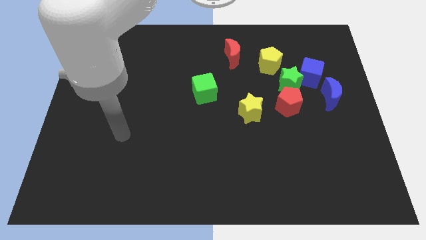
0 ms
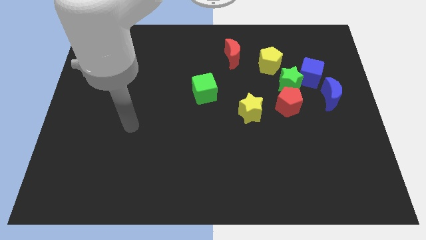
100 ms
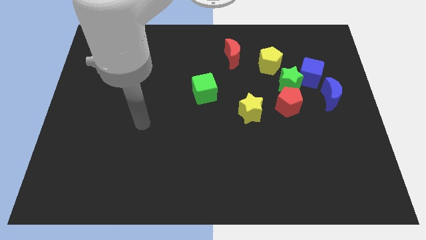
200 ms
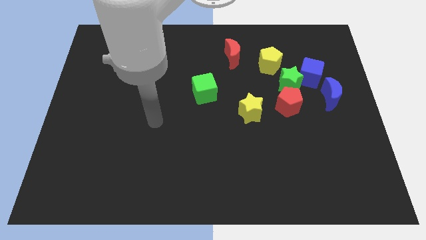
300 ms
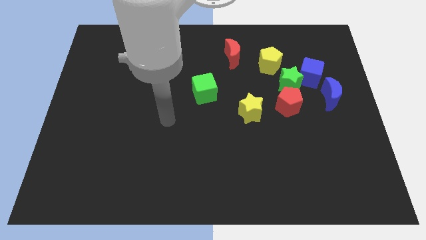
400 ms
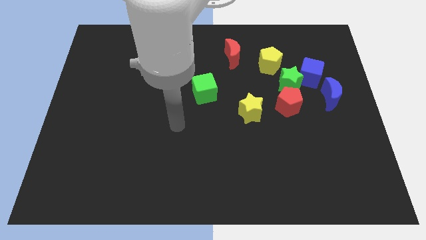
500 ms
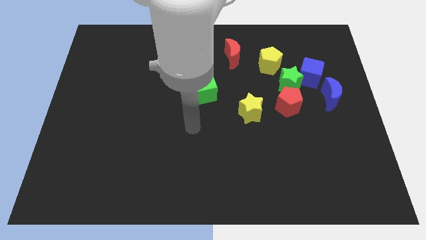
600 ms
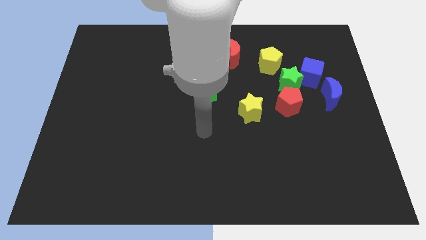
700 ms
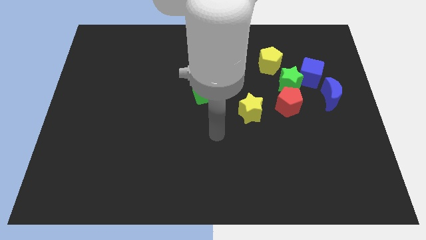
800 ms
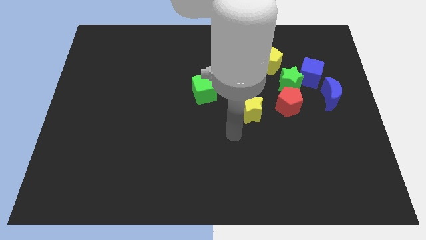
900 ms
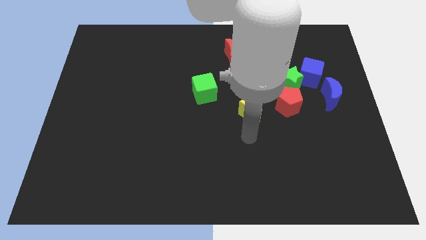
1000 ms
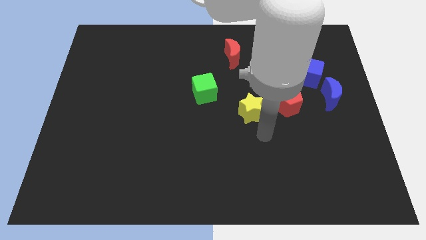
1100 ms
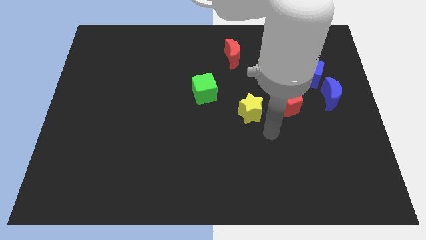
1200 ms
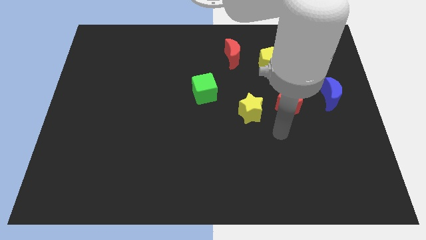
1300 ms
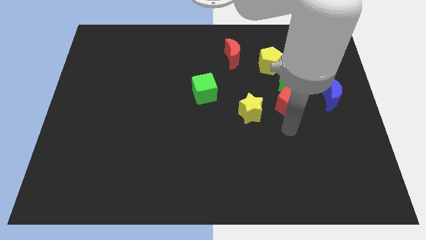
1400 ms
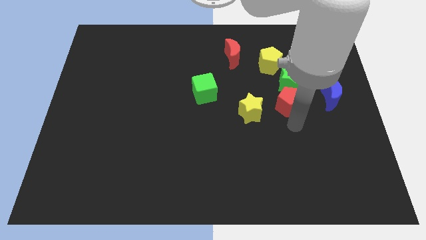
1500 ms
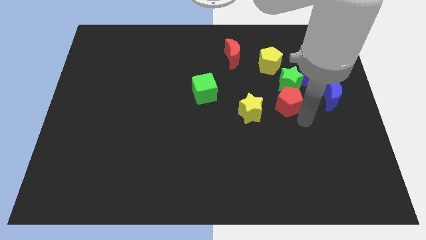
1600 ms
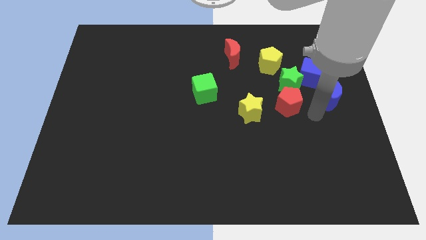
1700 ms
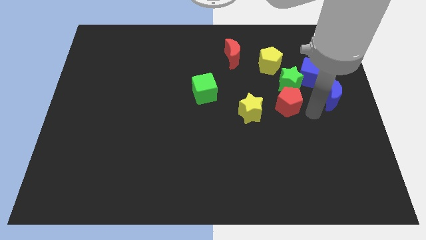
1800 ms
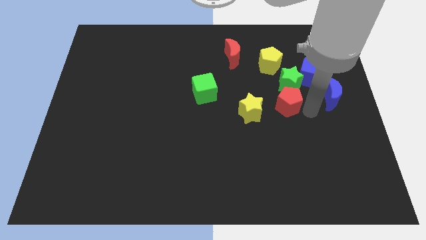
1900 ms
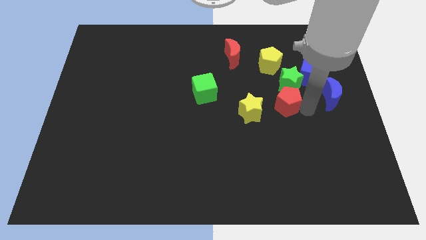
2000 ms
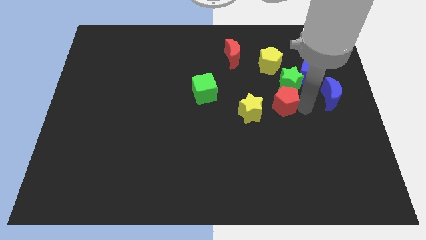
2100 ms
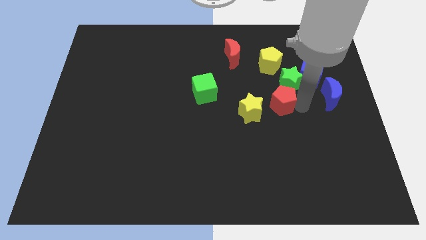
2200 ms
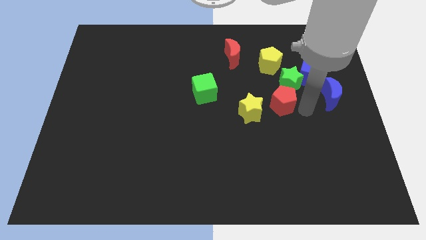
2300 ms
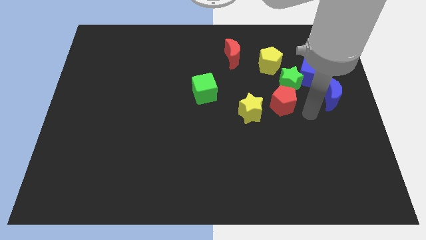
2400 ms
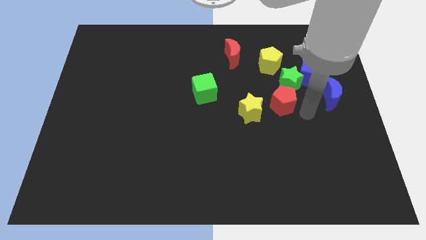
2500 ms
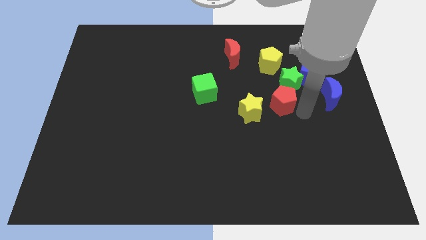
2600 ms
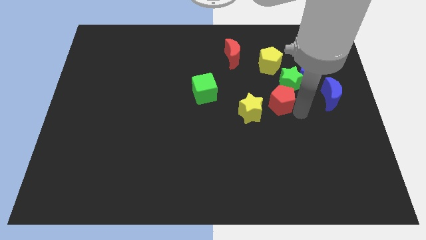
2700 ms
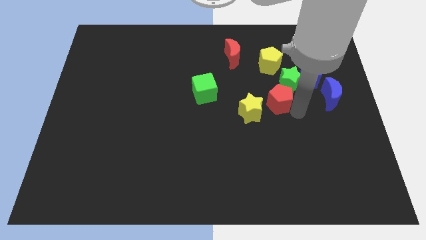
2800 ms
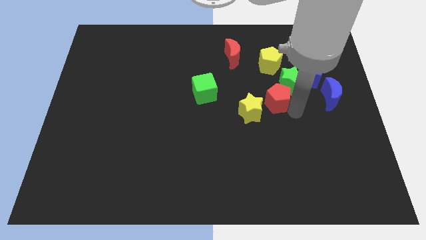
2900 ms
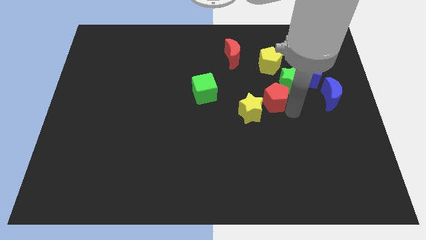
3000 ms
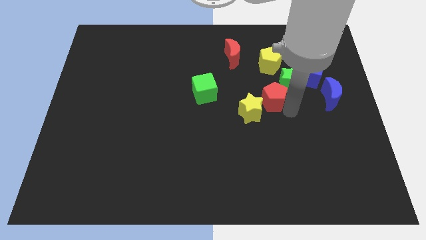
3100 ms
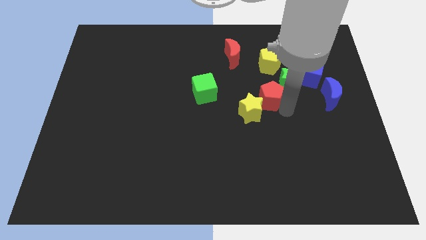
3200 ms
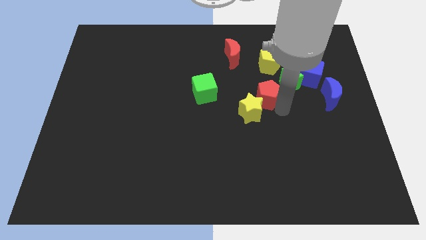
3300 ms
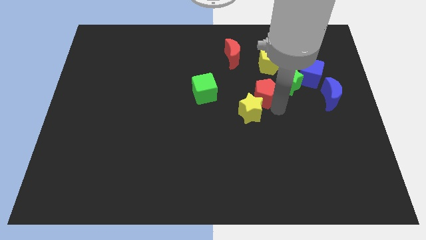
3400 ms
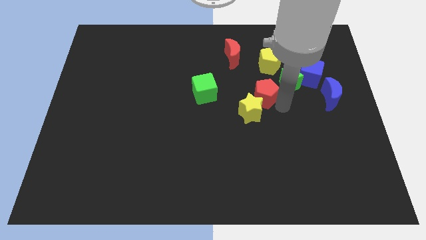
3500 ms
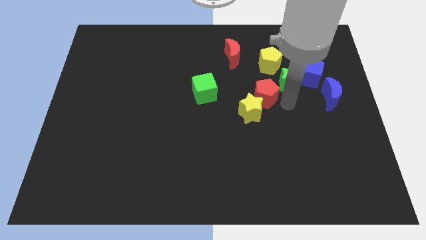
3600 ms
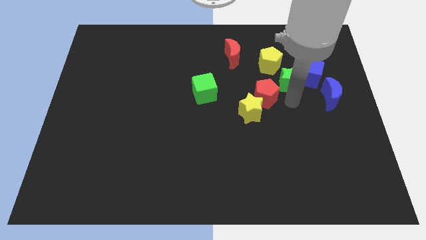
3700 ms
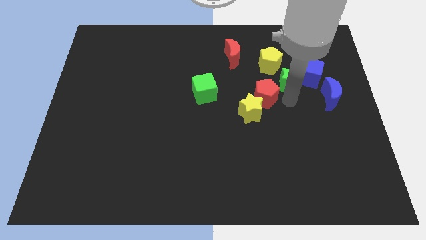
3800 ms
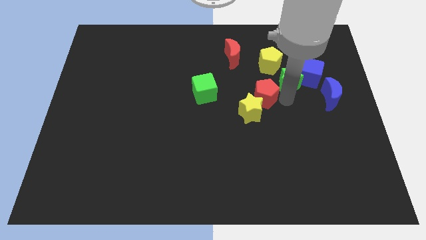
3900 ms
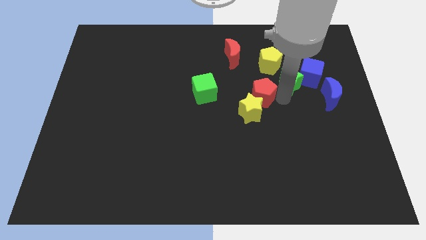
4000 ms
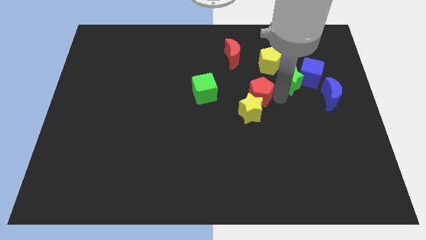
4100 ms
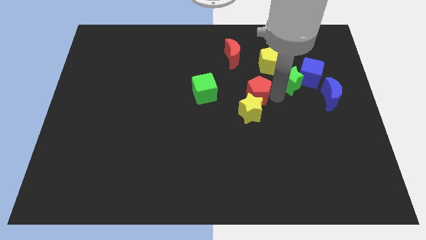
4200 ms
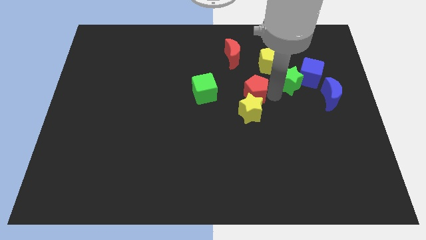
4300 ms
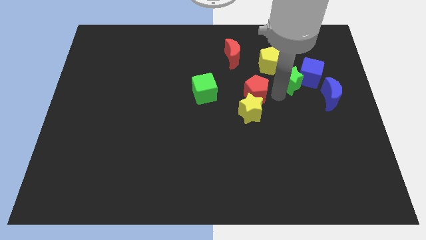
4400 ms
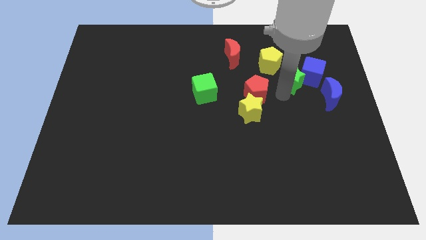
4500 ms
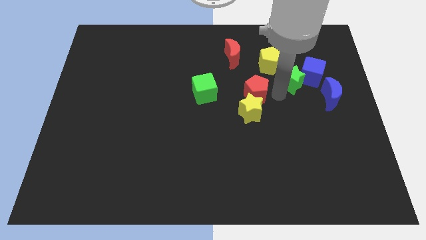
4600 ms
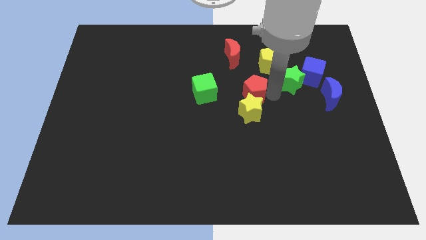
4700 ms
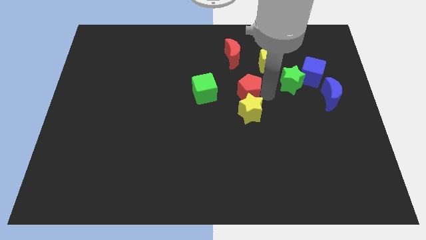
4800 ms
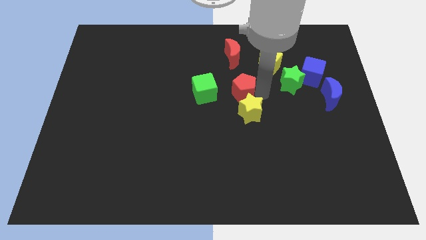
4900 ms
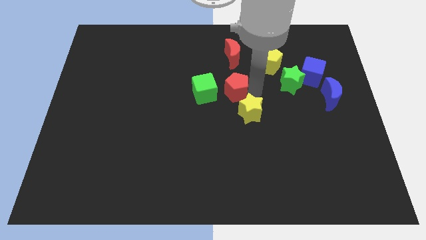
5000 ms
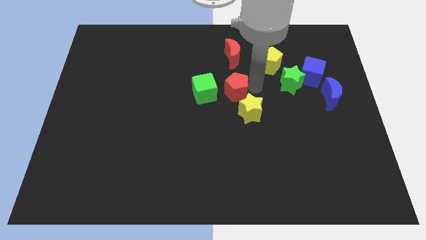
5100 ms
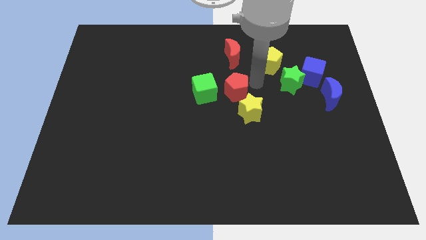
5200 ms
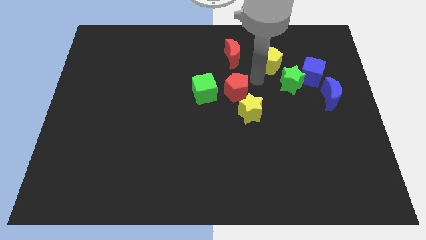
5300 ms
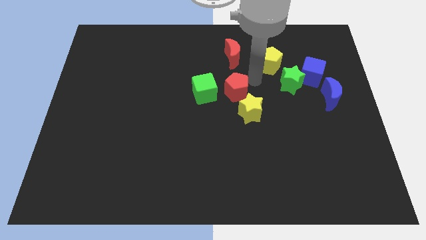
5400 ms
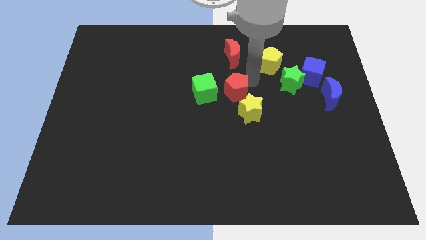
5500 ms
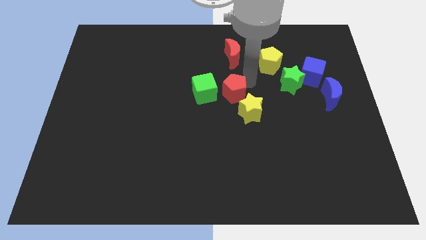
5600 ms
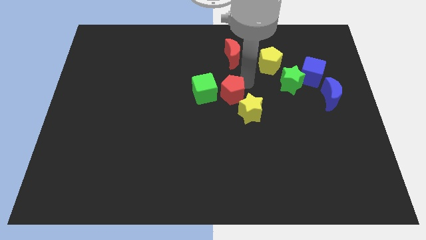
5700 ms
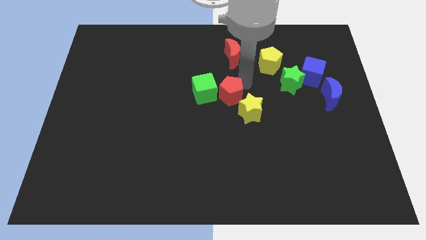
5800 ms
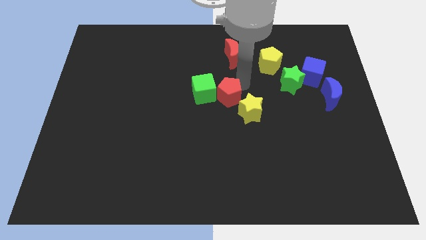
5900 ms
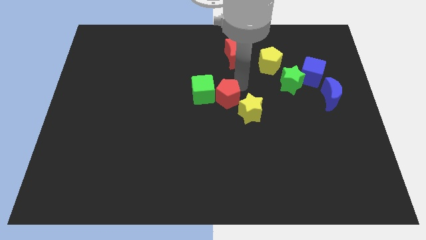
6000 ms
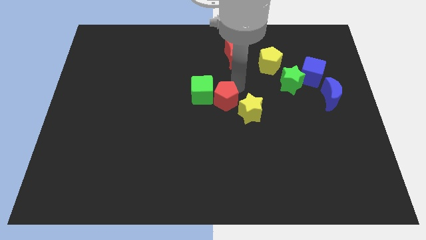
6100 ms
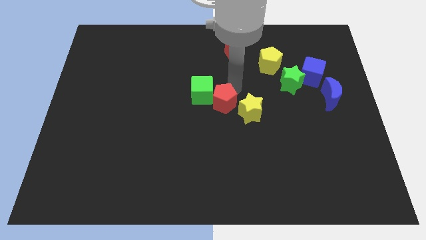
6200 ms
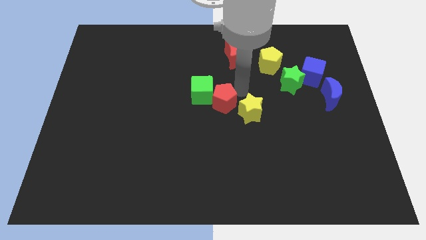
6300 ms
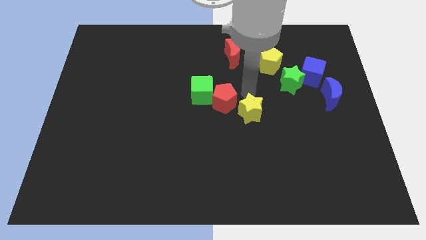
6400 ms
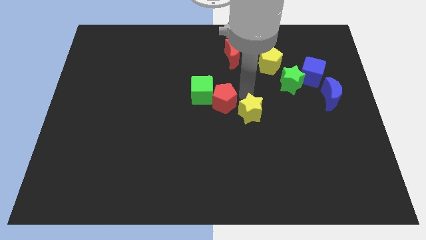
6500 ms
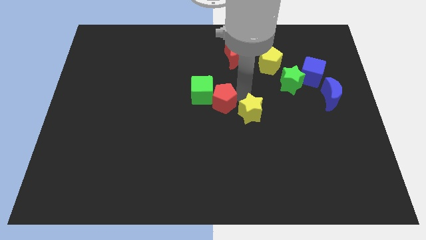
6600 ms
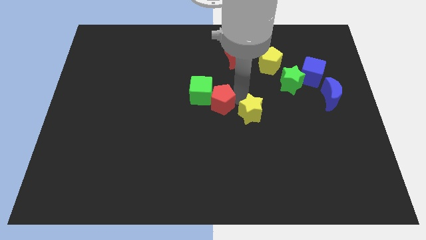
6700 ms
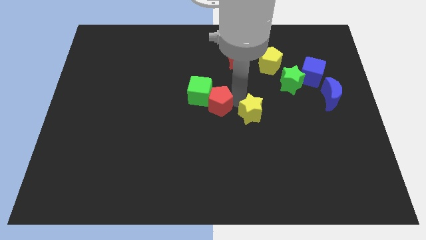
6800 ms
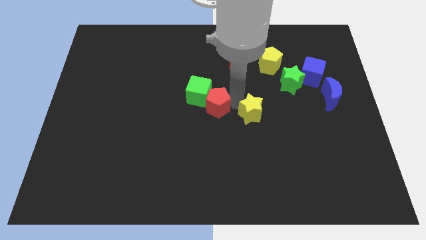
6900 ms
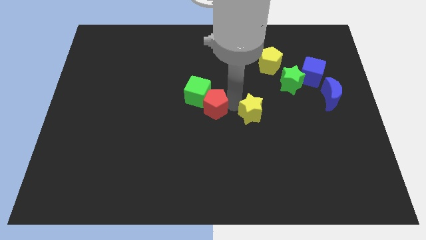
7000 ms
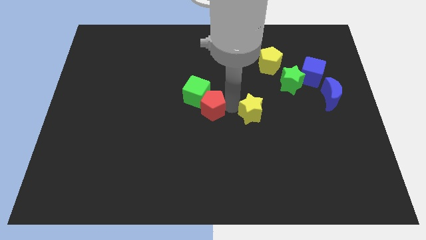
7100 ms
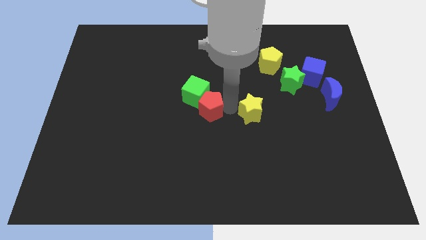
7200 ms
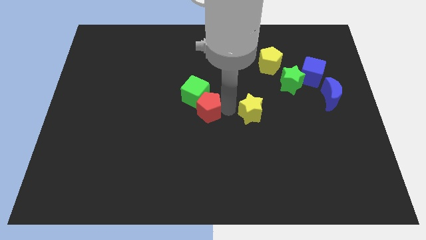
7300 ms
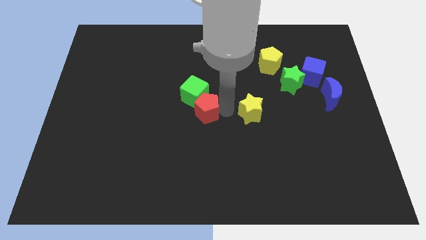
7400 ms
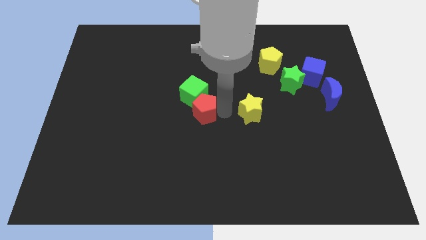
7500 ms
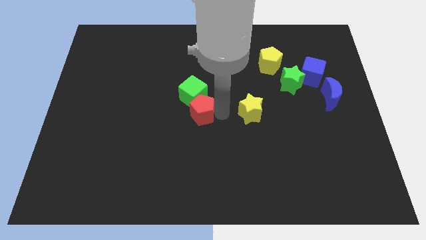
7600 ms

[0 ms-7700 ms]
push the red pentagon to the left
